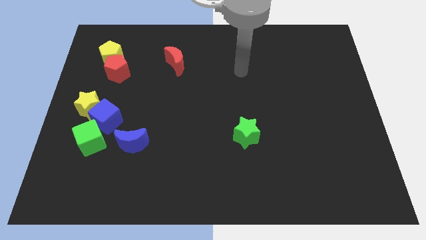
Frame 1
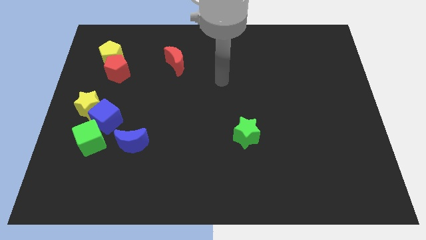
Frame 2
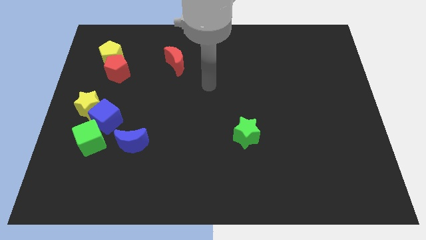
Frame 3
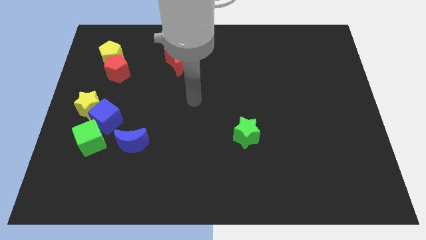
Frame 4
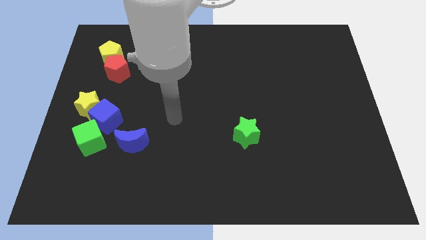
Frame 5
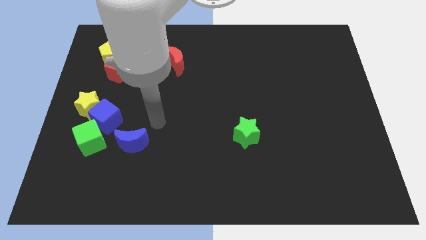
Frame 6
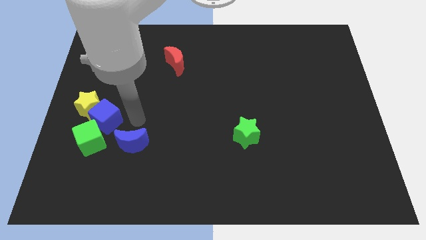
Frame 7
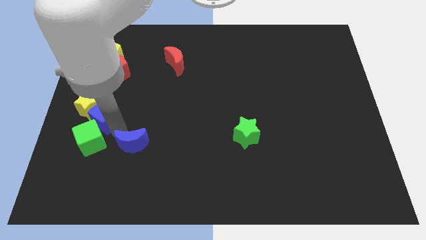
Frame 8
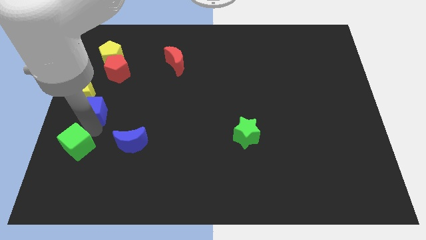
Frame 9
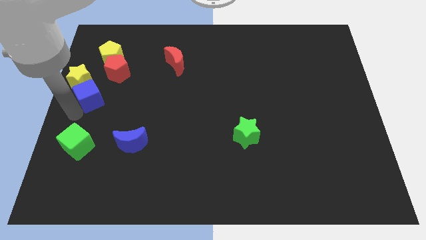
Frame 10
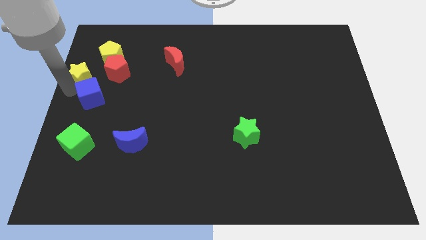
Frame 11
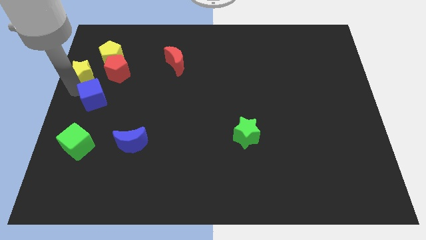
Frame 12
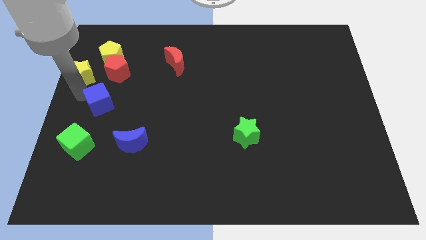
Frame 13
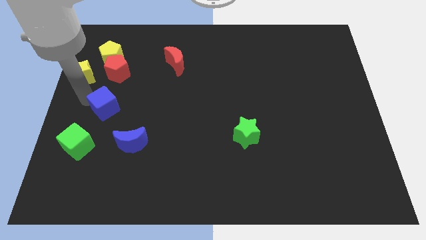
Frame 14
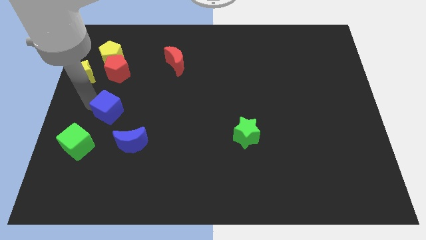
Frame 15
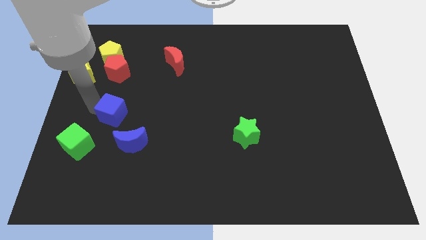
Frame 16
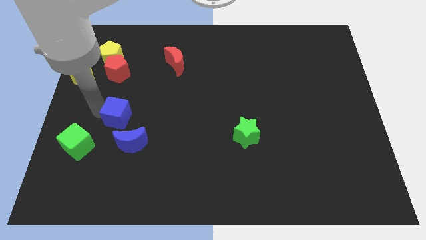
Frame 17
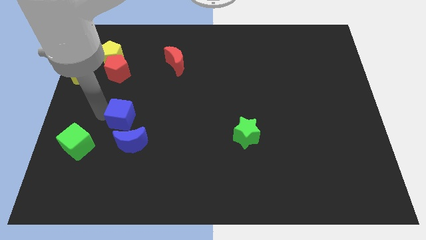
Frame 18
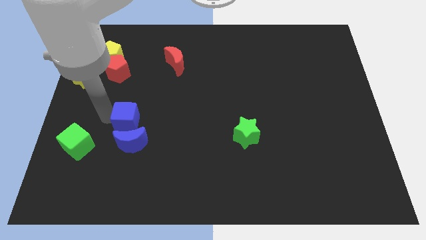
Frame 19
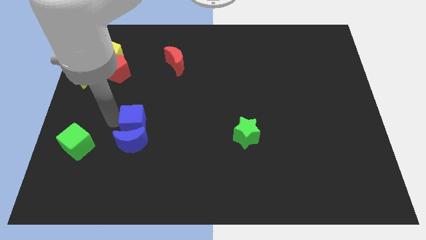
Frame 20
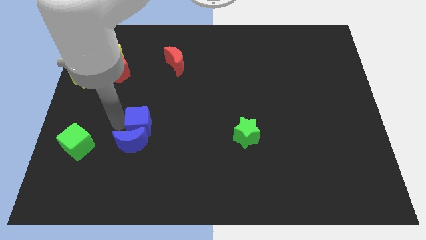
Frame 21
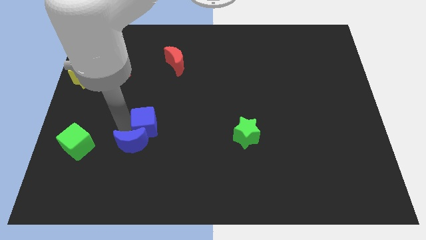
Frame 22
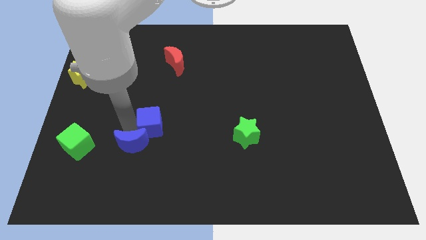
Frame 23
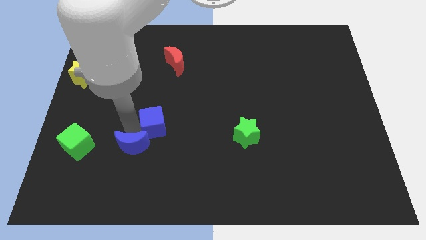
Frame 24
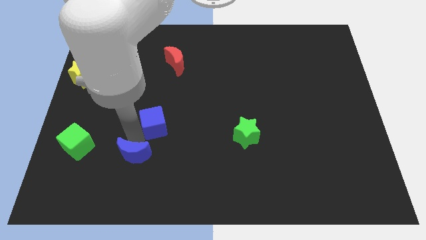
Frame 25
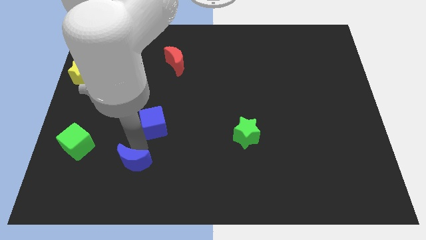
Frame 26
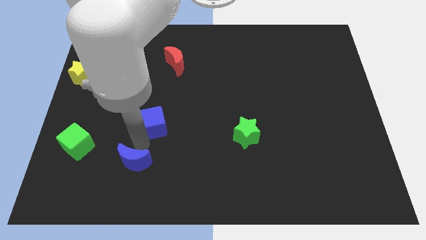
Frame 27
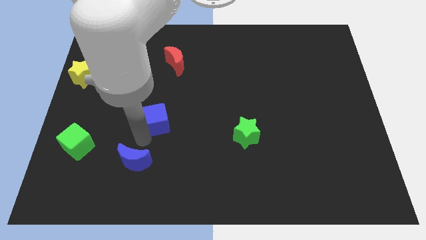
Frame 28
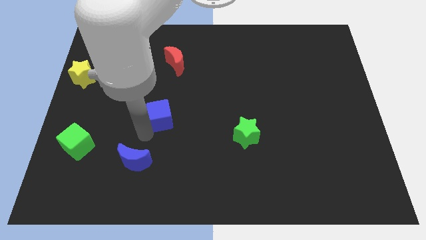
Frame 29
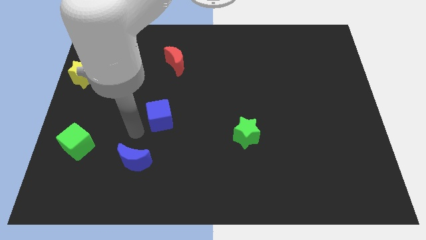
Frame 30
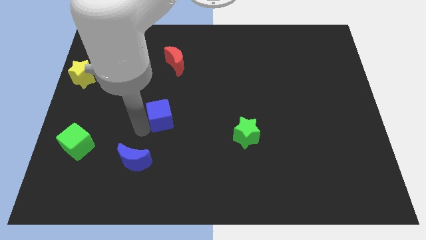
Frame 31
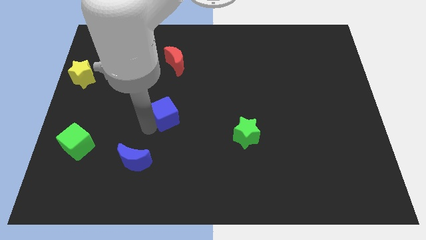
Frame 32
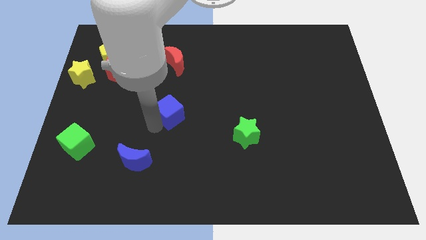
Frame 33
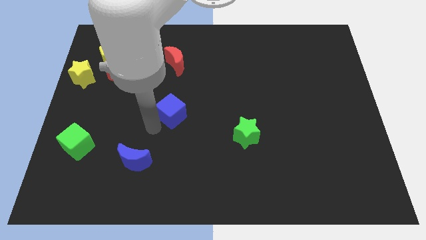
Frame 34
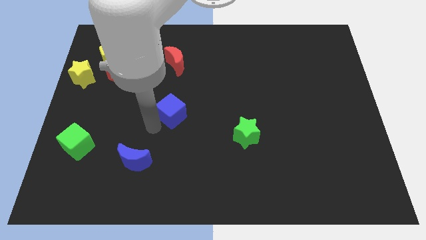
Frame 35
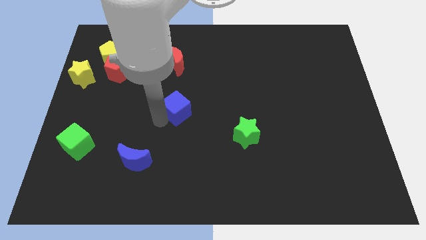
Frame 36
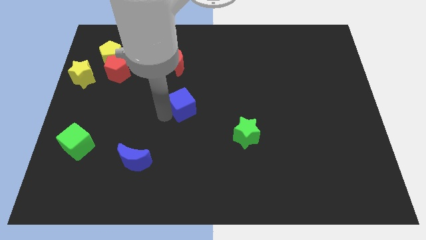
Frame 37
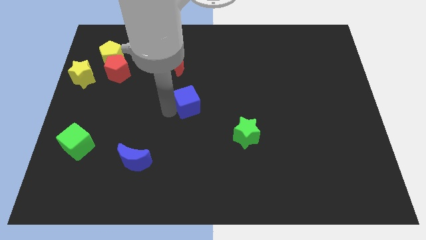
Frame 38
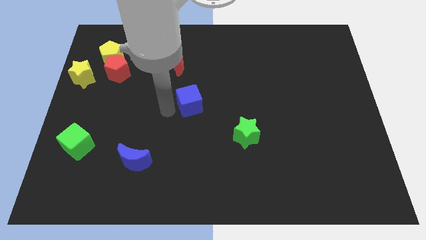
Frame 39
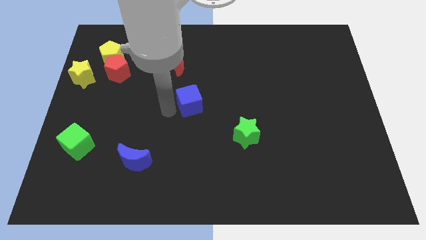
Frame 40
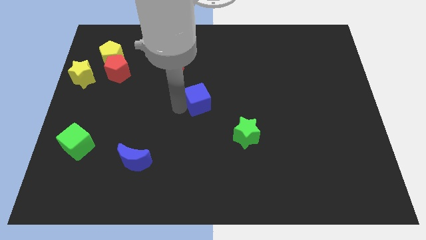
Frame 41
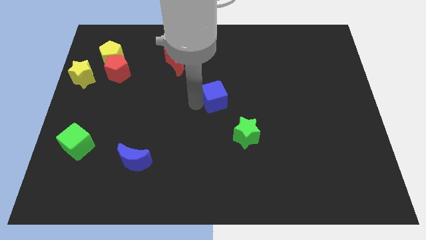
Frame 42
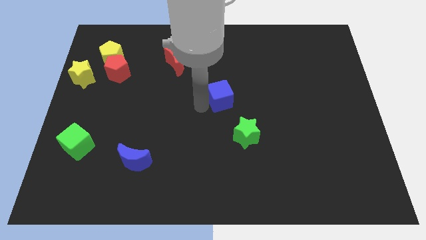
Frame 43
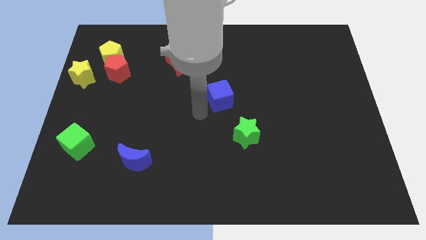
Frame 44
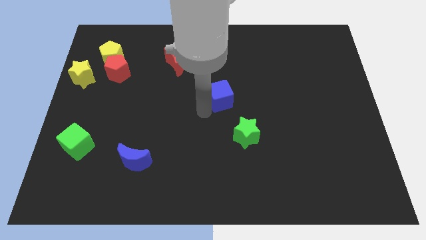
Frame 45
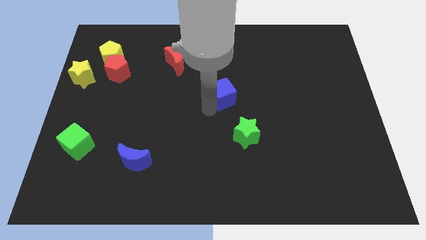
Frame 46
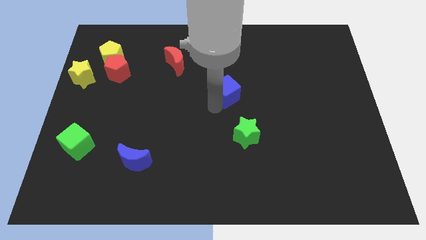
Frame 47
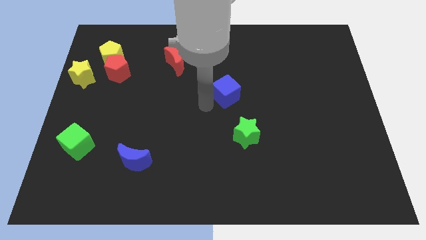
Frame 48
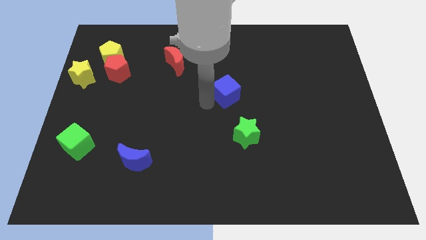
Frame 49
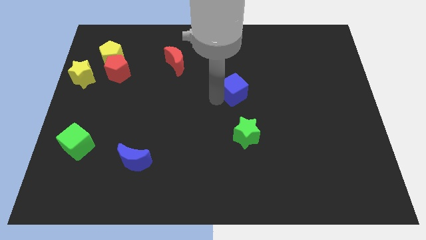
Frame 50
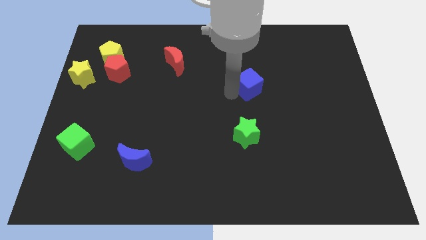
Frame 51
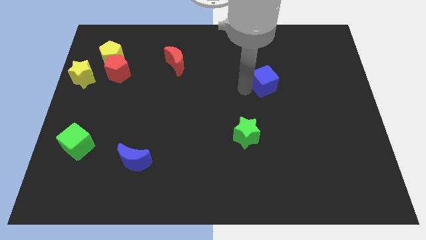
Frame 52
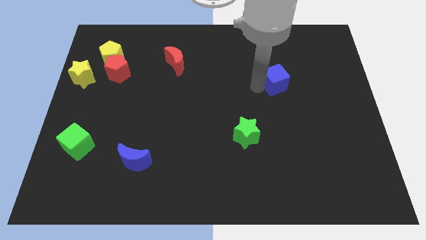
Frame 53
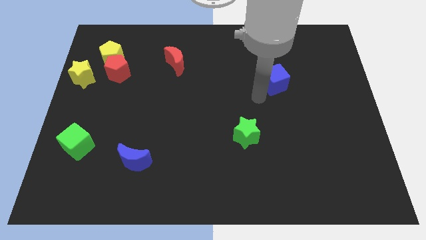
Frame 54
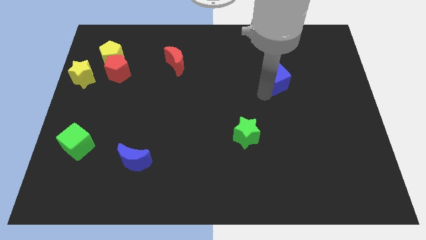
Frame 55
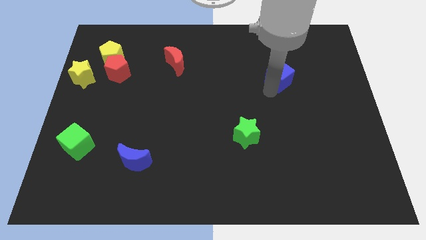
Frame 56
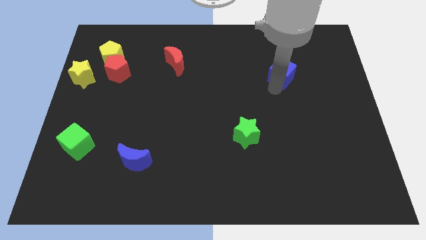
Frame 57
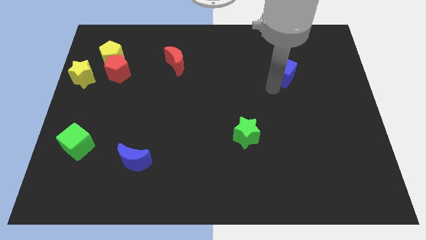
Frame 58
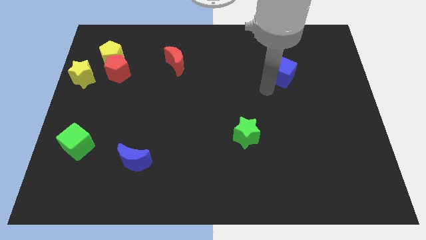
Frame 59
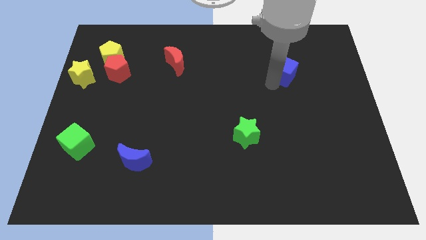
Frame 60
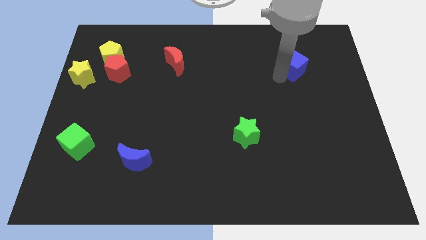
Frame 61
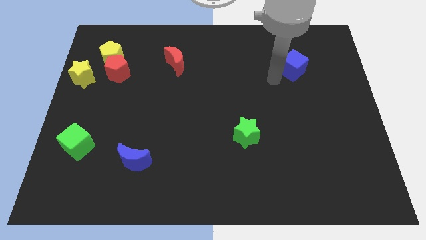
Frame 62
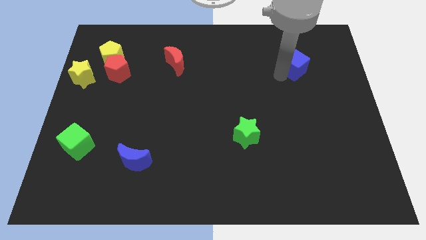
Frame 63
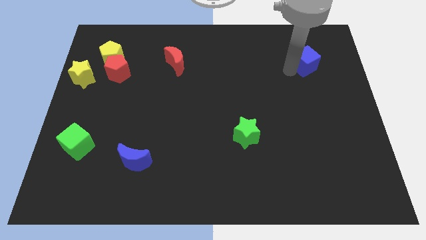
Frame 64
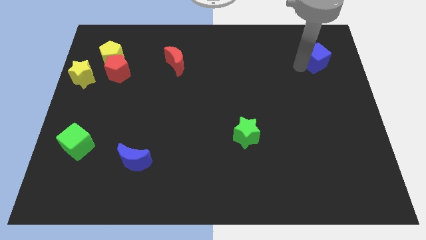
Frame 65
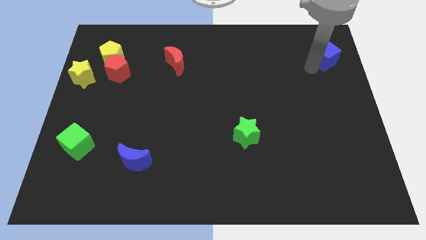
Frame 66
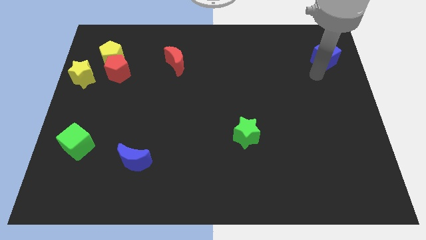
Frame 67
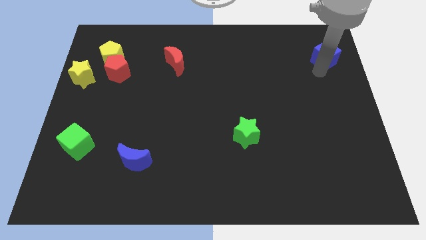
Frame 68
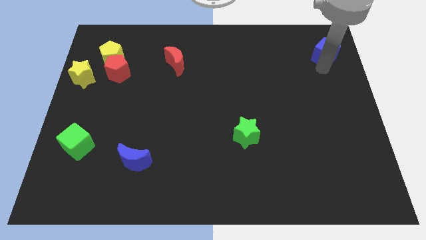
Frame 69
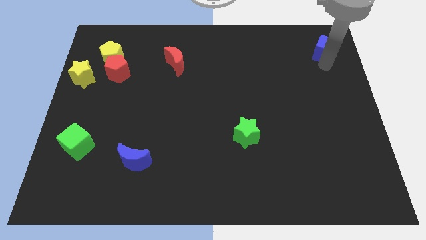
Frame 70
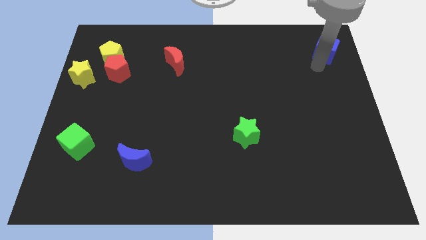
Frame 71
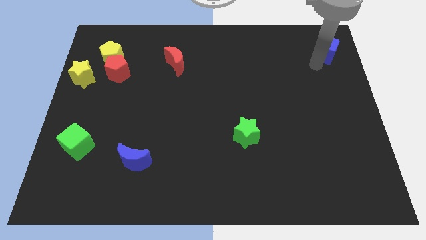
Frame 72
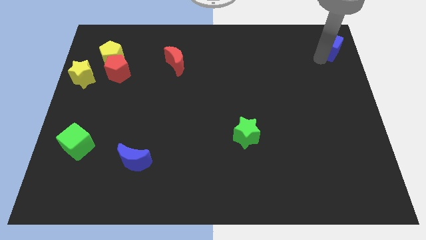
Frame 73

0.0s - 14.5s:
push the blue cube to the upper right corner
